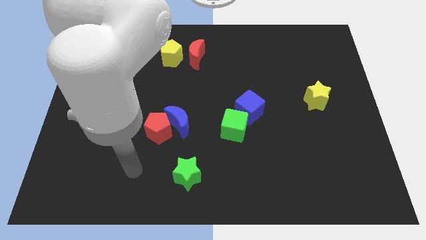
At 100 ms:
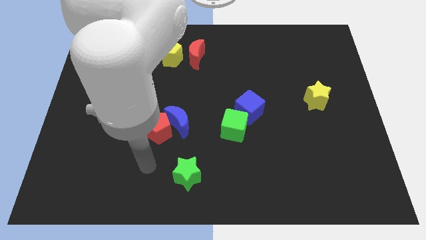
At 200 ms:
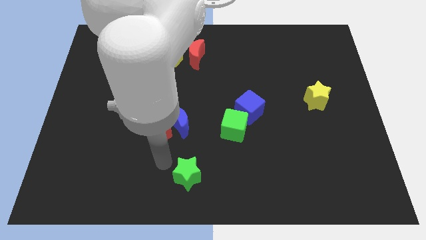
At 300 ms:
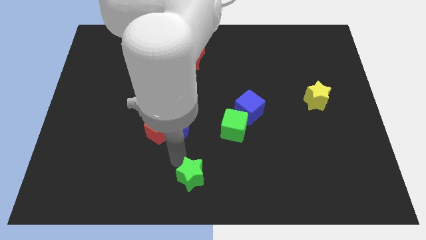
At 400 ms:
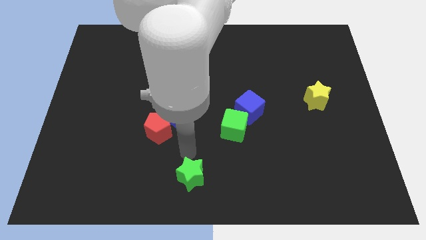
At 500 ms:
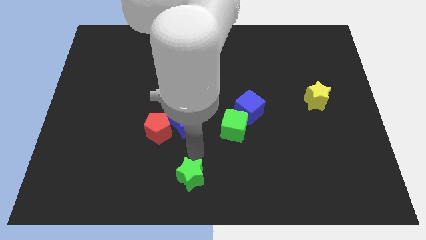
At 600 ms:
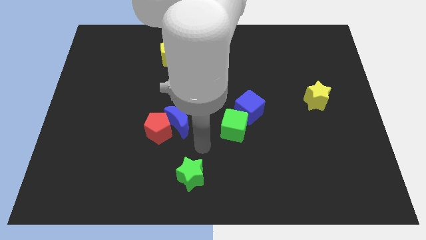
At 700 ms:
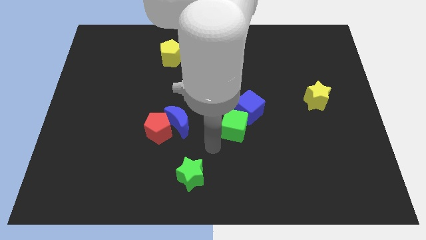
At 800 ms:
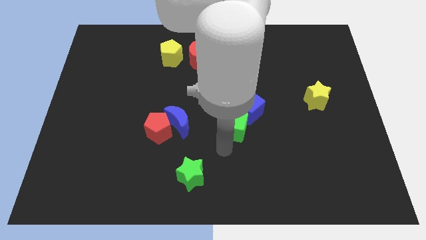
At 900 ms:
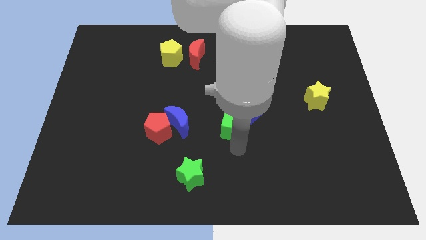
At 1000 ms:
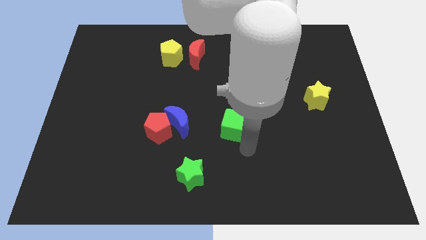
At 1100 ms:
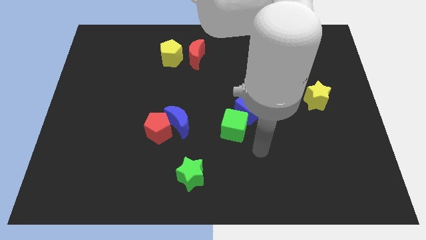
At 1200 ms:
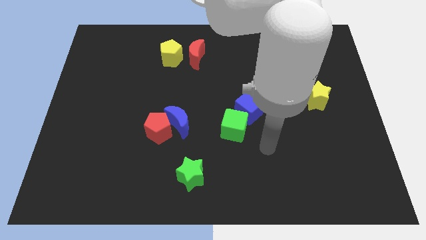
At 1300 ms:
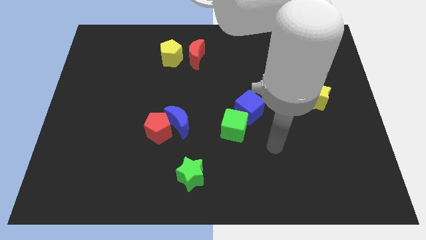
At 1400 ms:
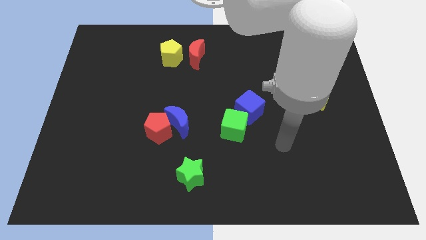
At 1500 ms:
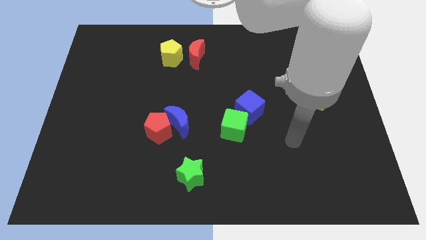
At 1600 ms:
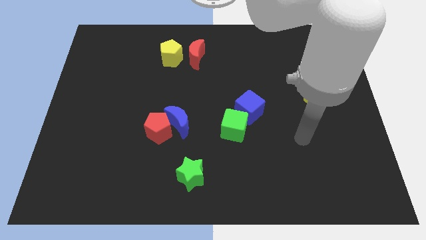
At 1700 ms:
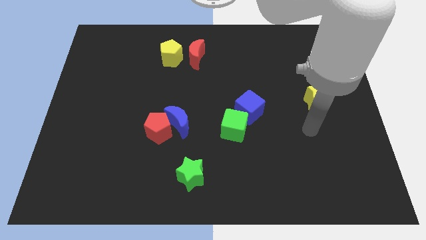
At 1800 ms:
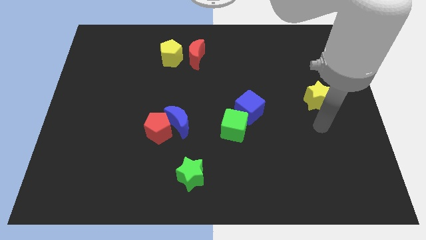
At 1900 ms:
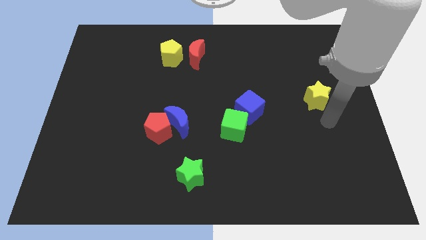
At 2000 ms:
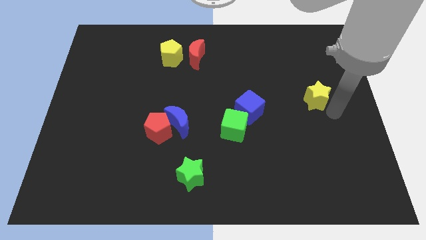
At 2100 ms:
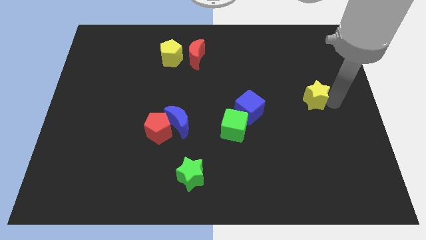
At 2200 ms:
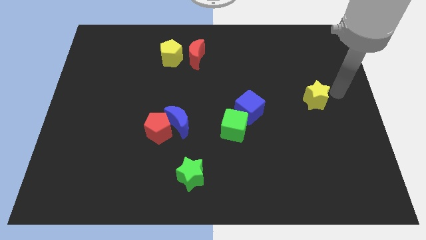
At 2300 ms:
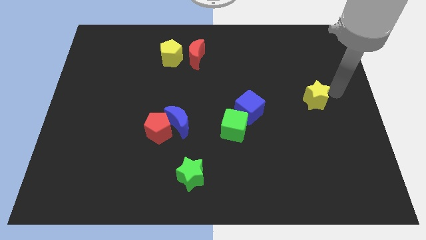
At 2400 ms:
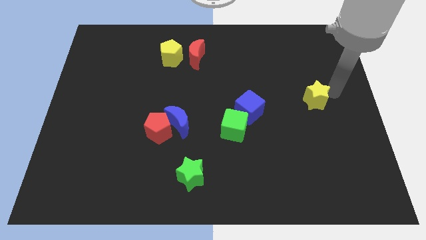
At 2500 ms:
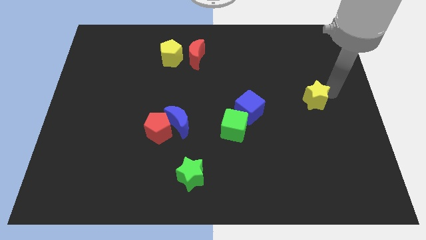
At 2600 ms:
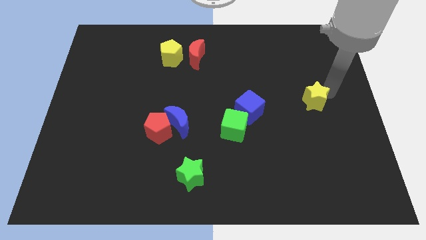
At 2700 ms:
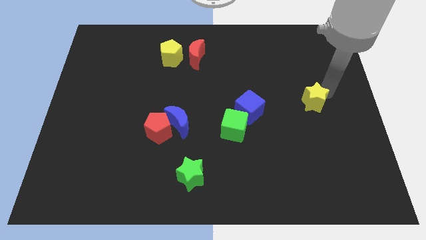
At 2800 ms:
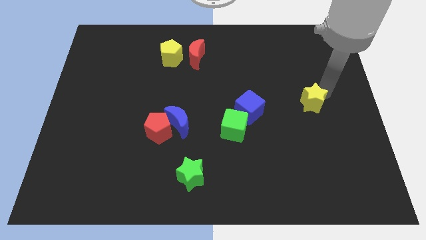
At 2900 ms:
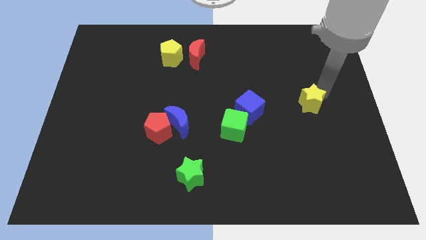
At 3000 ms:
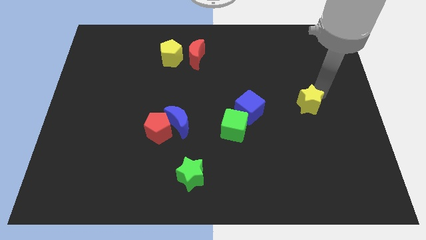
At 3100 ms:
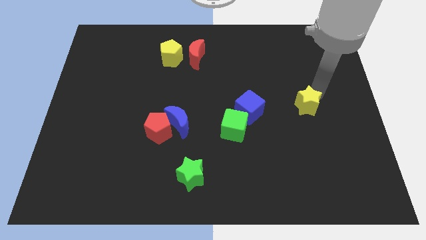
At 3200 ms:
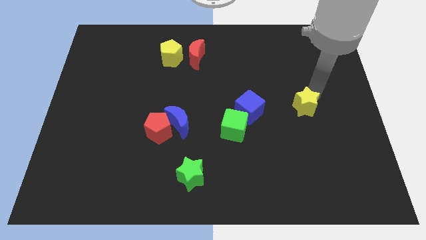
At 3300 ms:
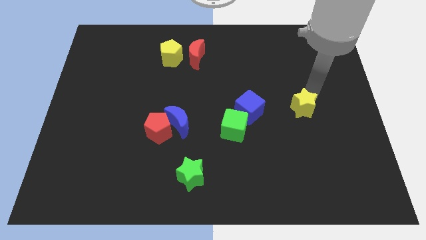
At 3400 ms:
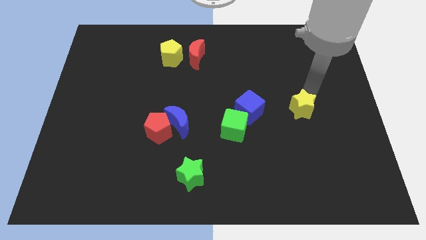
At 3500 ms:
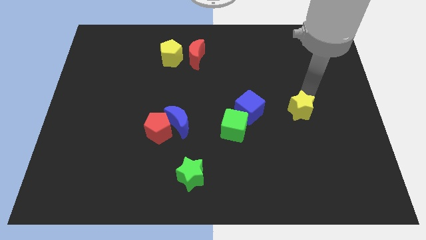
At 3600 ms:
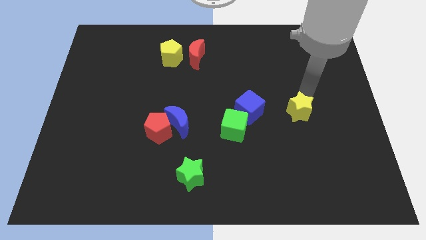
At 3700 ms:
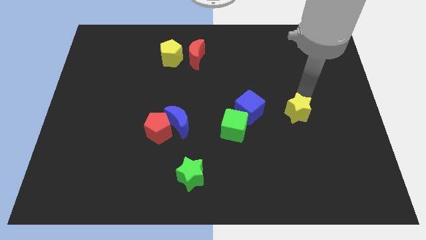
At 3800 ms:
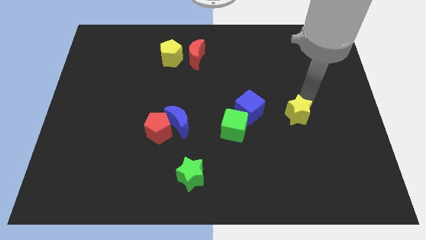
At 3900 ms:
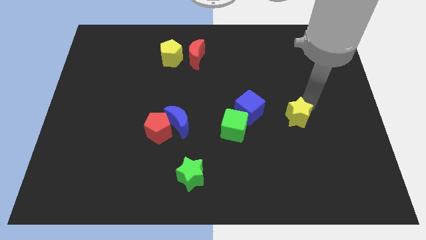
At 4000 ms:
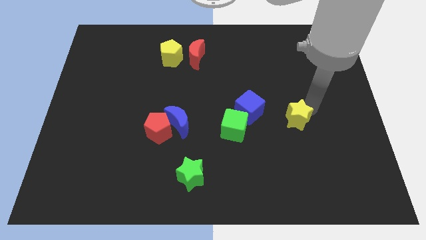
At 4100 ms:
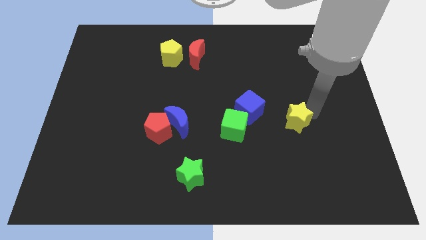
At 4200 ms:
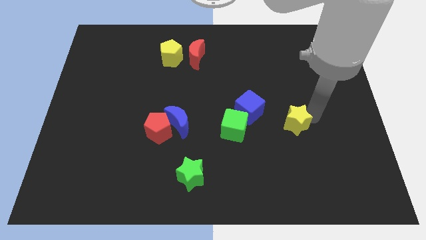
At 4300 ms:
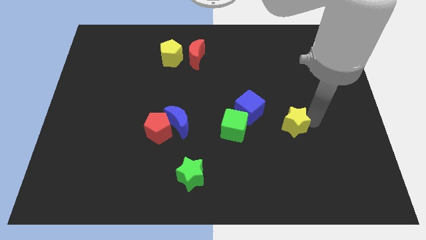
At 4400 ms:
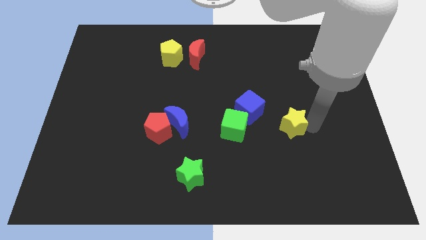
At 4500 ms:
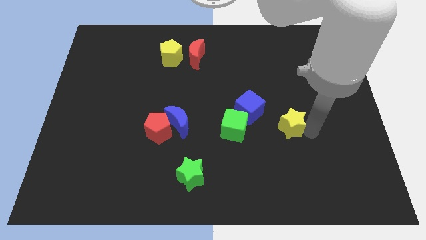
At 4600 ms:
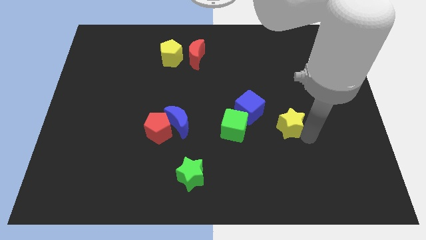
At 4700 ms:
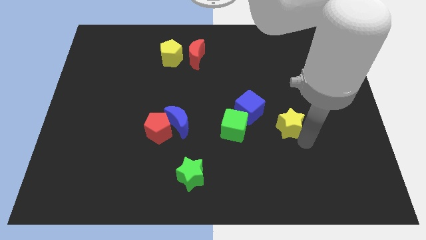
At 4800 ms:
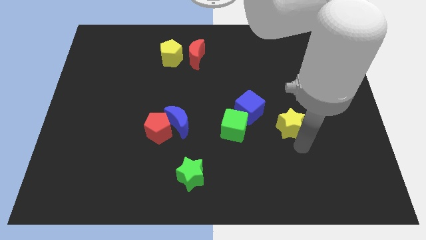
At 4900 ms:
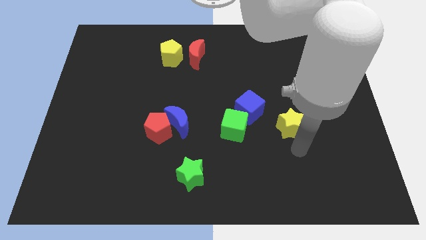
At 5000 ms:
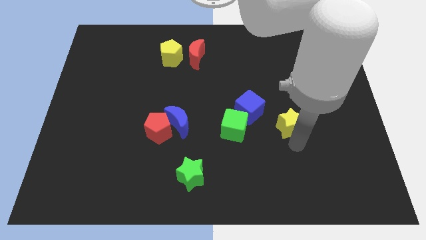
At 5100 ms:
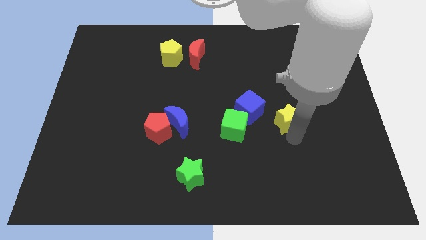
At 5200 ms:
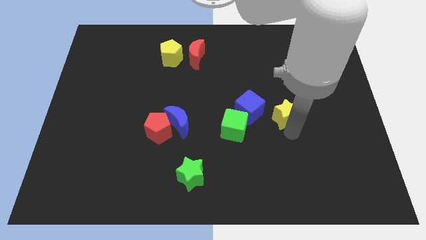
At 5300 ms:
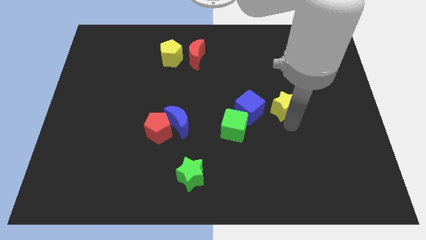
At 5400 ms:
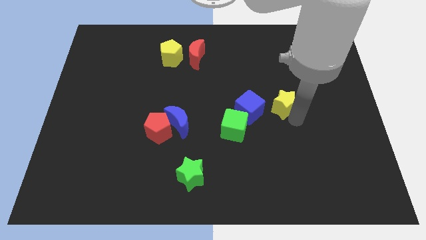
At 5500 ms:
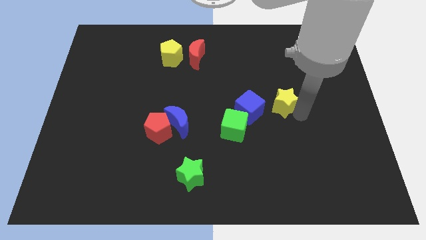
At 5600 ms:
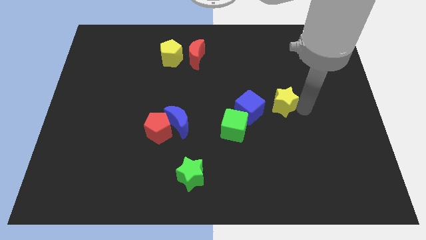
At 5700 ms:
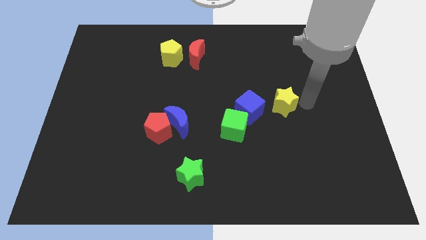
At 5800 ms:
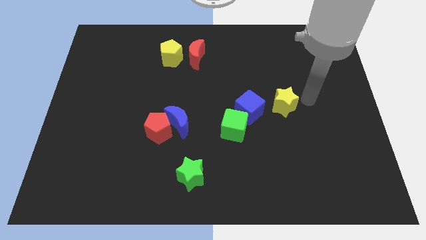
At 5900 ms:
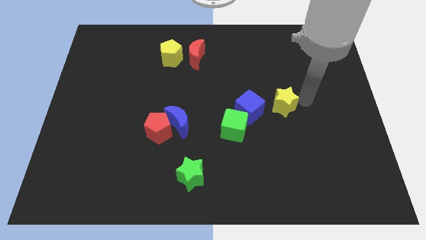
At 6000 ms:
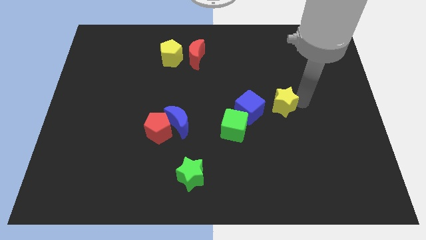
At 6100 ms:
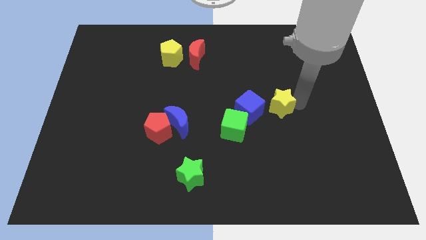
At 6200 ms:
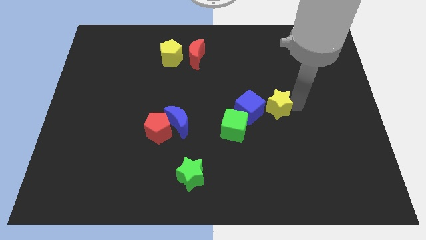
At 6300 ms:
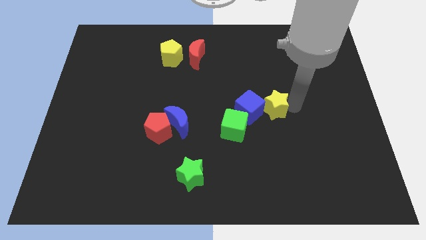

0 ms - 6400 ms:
move the yellow star towards the blue cube

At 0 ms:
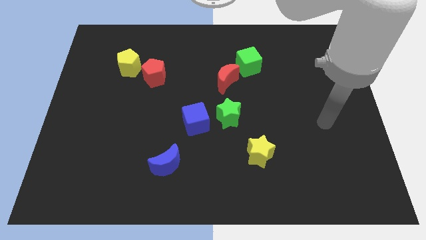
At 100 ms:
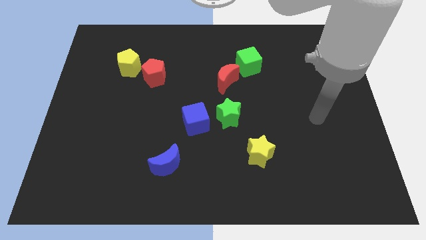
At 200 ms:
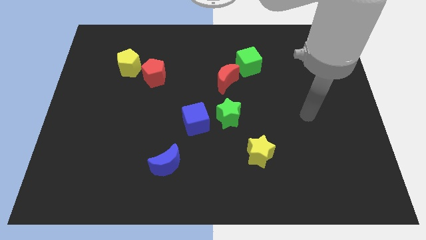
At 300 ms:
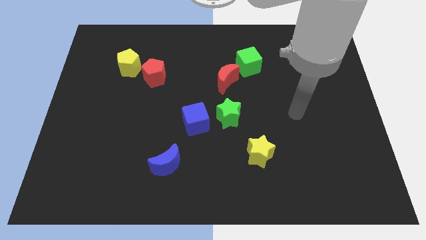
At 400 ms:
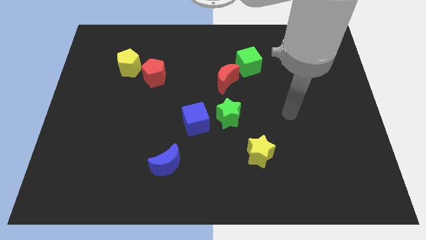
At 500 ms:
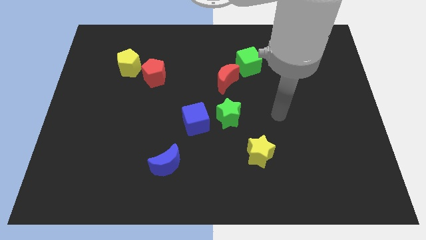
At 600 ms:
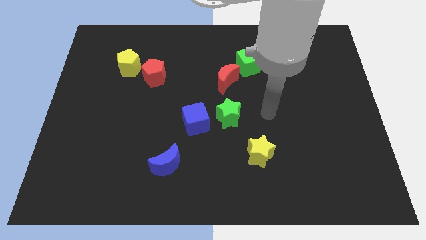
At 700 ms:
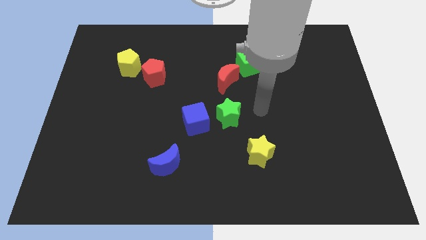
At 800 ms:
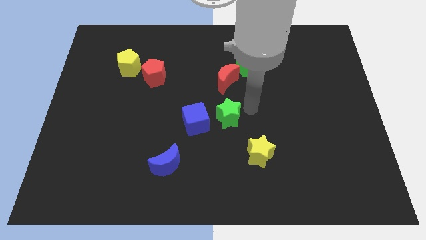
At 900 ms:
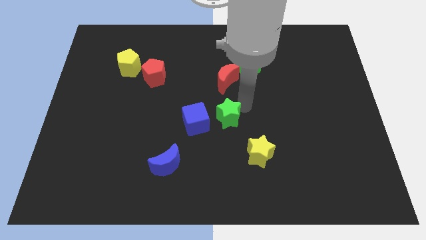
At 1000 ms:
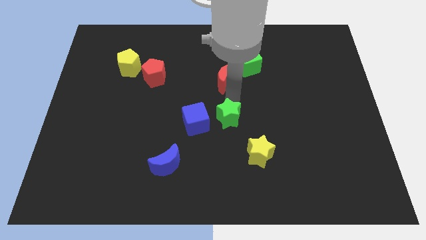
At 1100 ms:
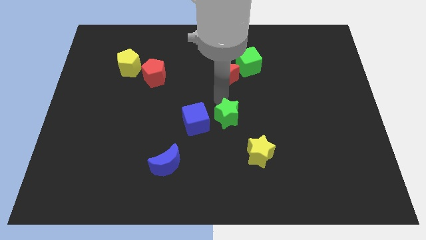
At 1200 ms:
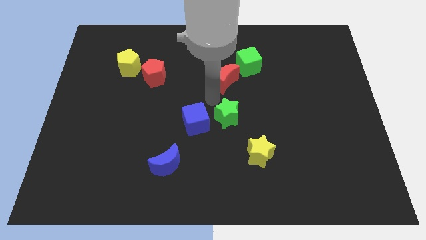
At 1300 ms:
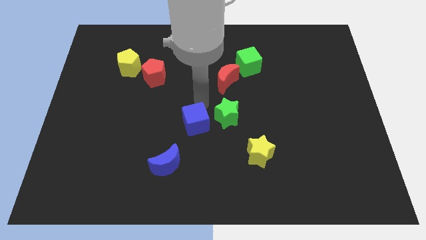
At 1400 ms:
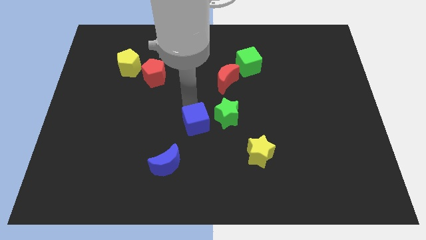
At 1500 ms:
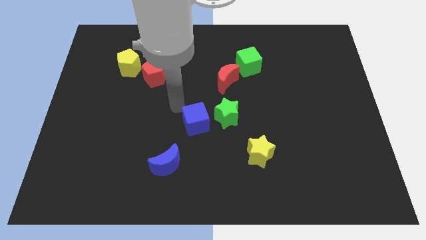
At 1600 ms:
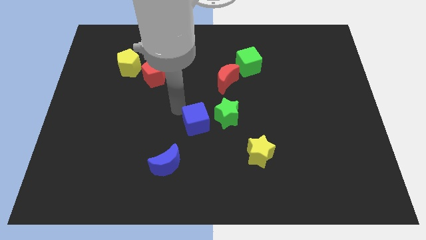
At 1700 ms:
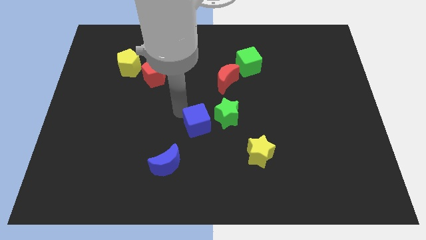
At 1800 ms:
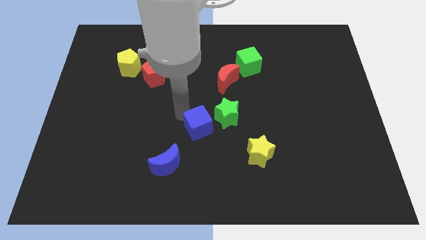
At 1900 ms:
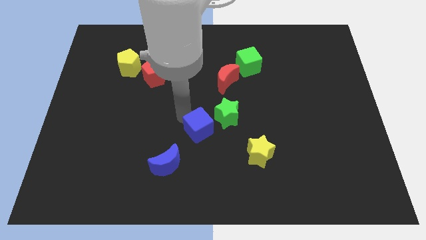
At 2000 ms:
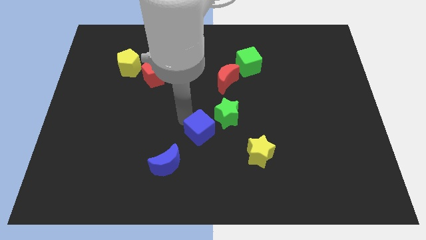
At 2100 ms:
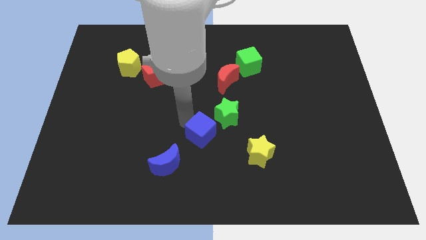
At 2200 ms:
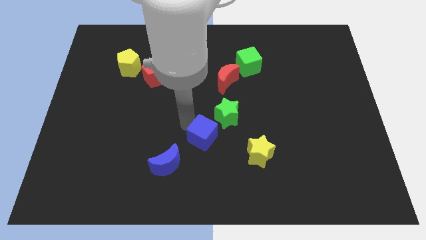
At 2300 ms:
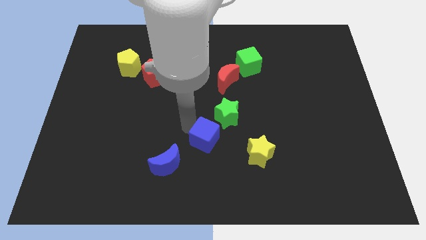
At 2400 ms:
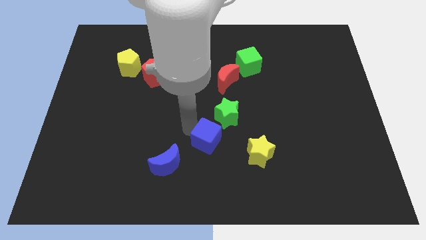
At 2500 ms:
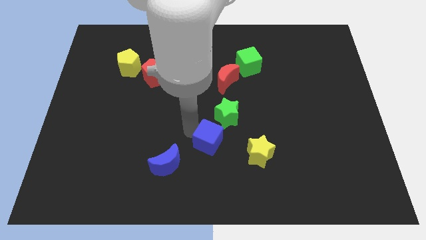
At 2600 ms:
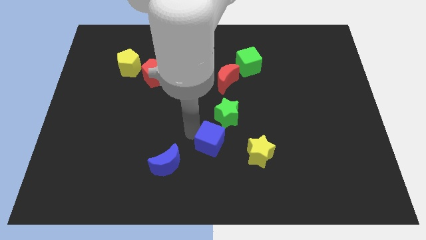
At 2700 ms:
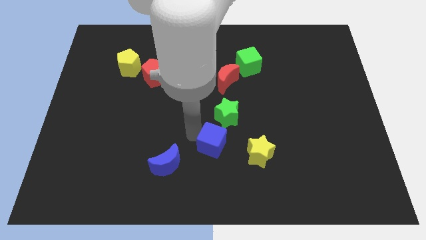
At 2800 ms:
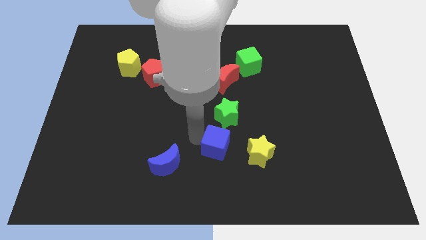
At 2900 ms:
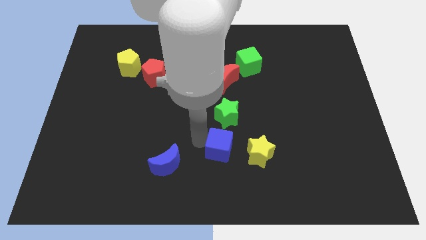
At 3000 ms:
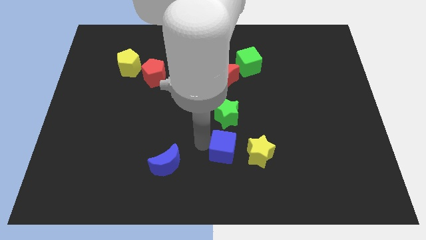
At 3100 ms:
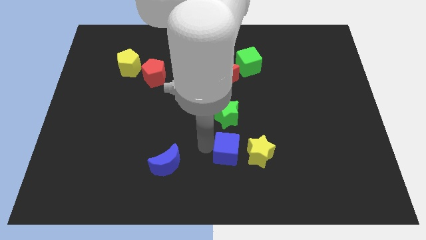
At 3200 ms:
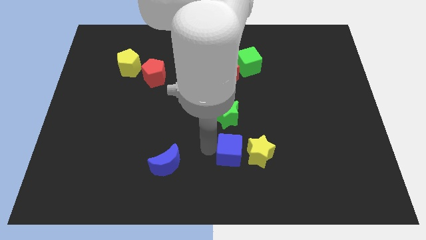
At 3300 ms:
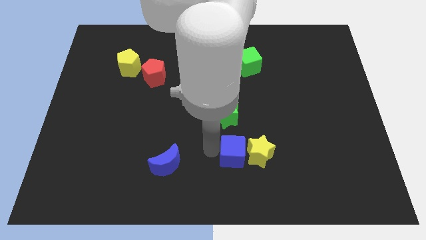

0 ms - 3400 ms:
move the blue cube towards the yellow star
